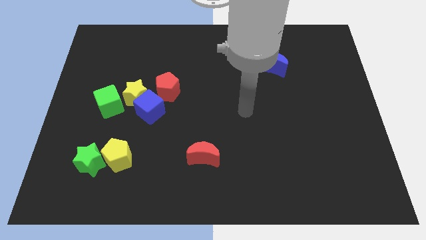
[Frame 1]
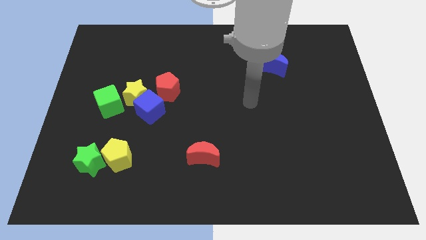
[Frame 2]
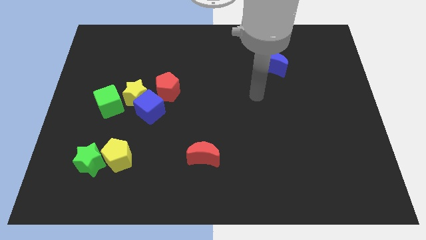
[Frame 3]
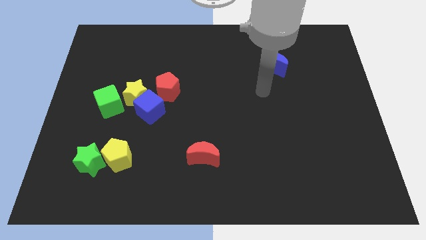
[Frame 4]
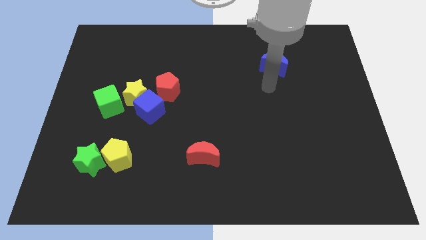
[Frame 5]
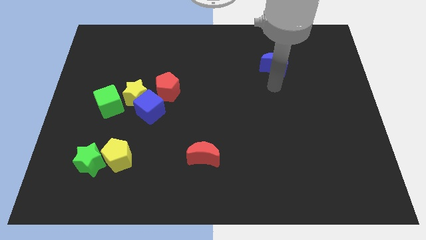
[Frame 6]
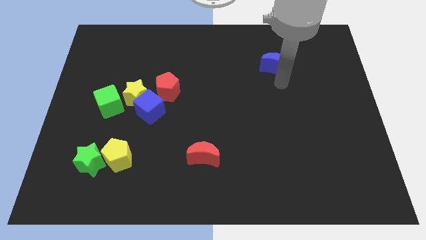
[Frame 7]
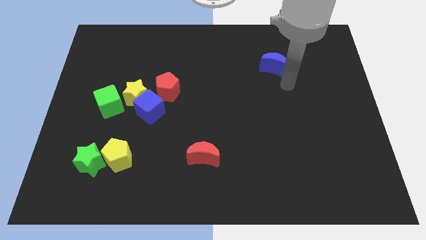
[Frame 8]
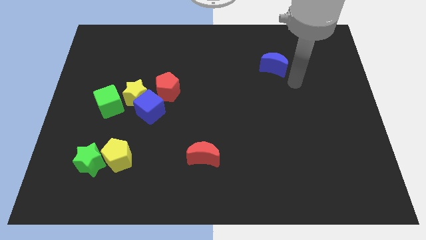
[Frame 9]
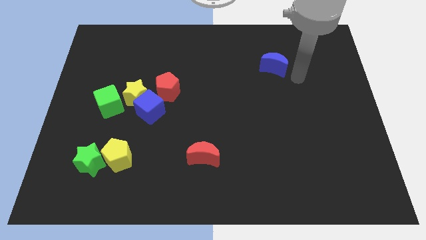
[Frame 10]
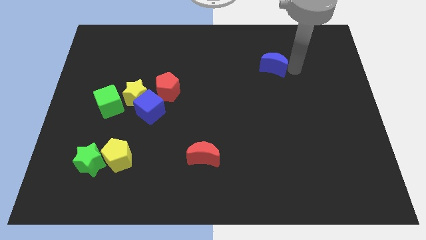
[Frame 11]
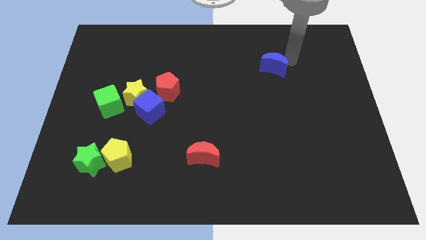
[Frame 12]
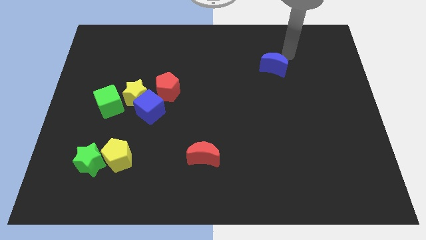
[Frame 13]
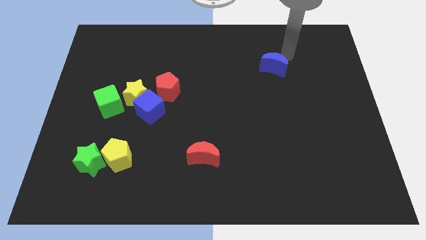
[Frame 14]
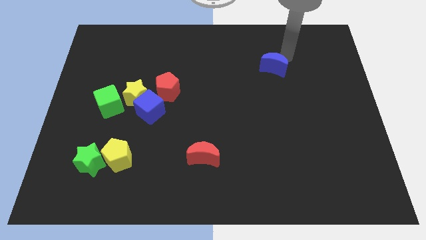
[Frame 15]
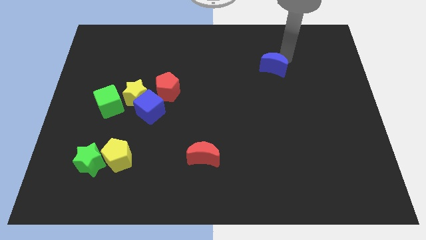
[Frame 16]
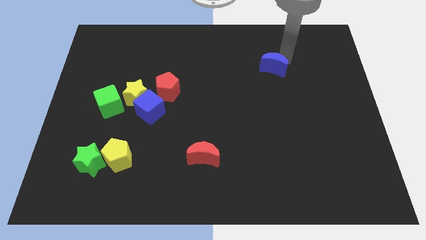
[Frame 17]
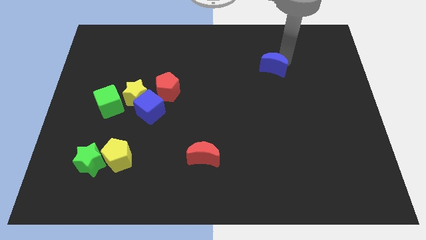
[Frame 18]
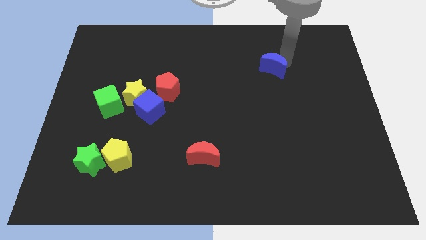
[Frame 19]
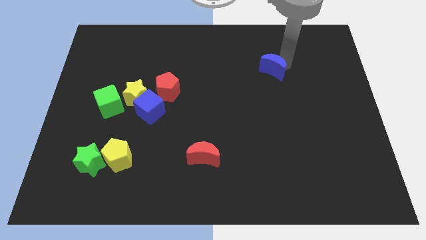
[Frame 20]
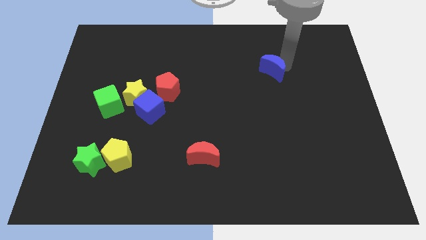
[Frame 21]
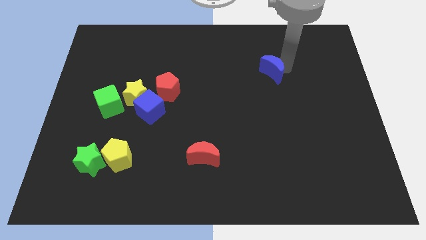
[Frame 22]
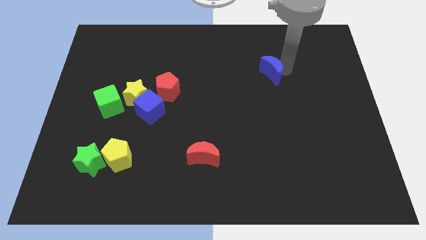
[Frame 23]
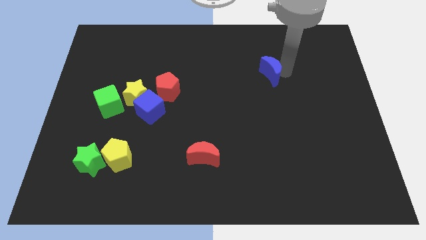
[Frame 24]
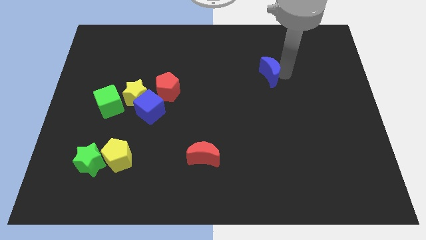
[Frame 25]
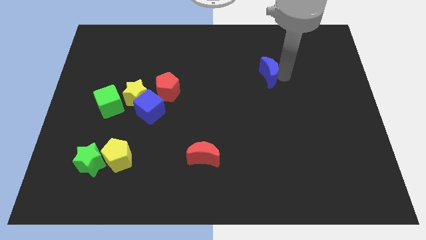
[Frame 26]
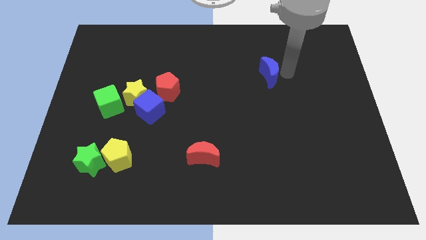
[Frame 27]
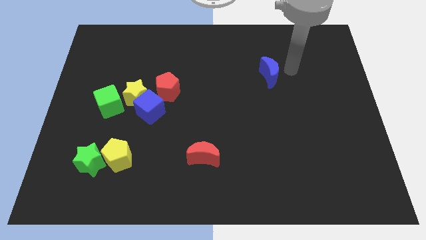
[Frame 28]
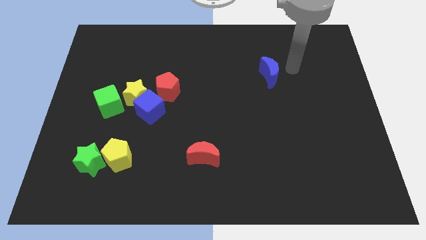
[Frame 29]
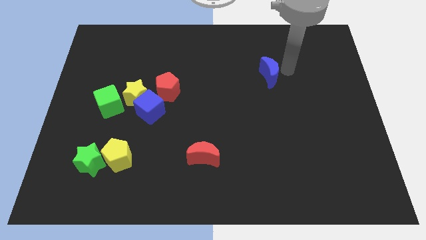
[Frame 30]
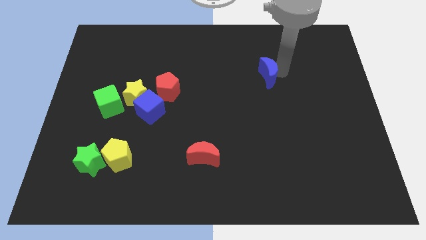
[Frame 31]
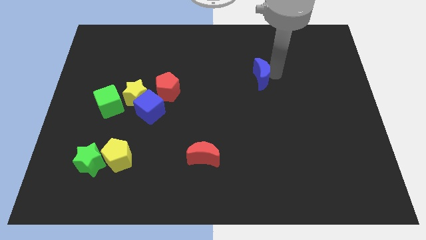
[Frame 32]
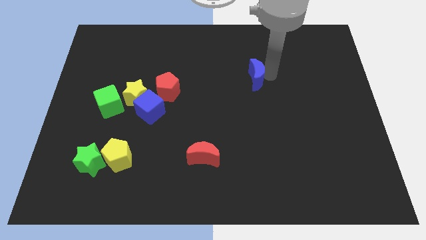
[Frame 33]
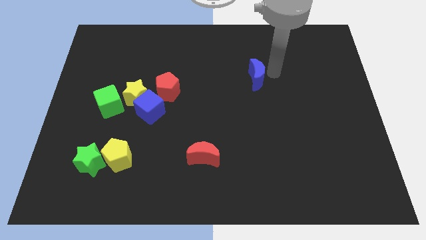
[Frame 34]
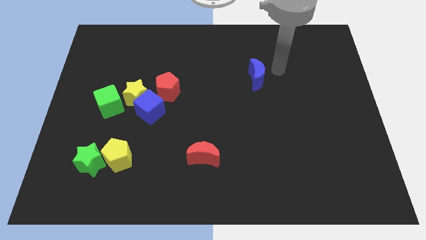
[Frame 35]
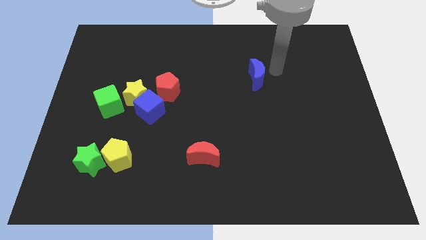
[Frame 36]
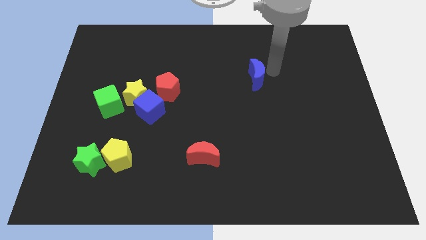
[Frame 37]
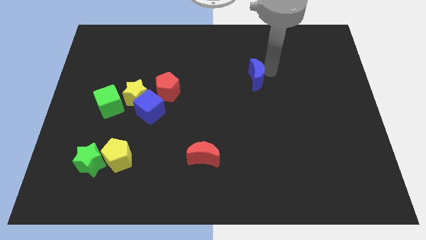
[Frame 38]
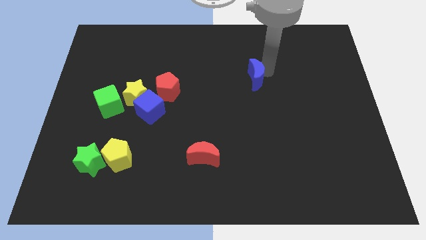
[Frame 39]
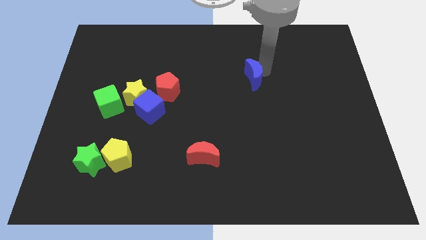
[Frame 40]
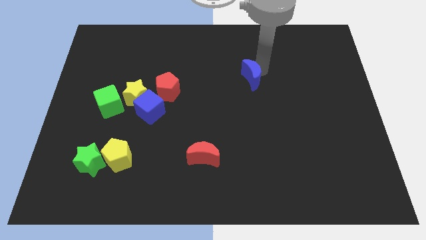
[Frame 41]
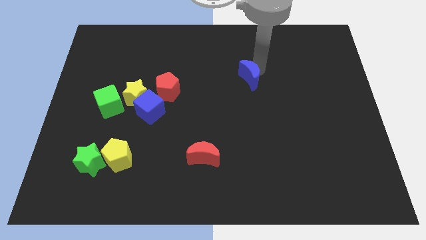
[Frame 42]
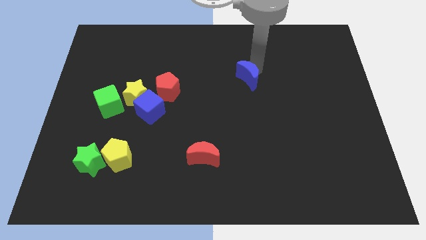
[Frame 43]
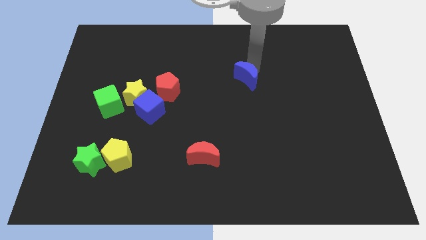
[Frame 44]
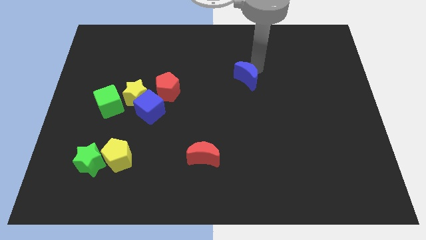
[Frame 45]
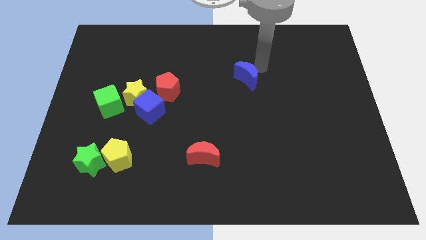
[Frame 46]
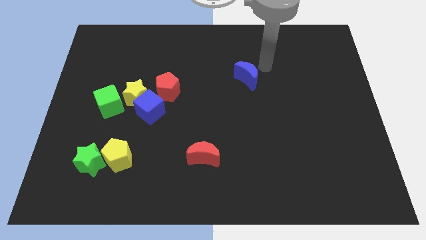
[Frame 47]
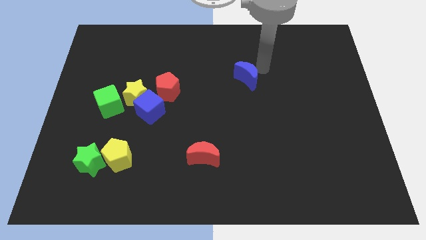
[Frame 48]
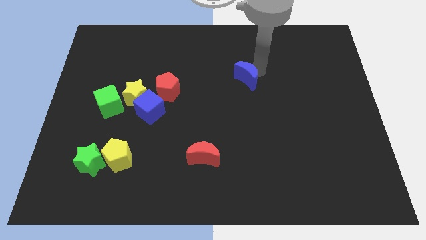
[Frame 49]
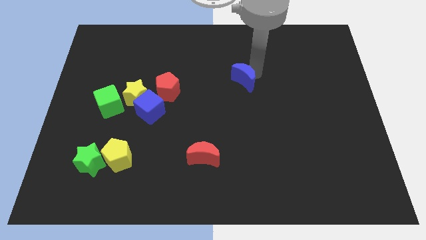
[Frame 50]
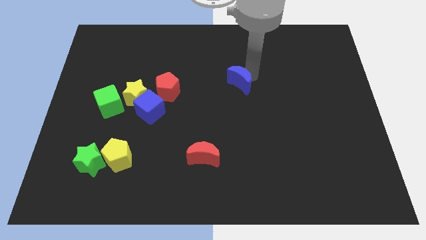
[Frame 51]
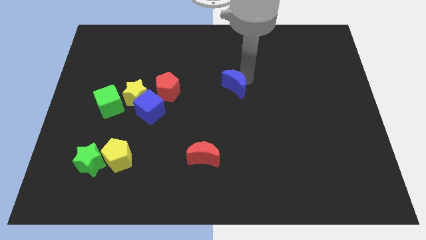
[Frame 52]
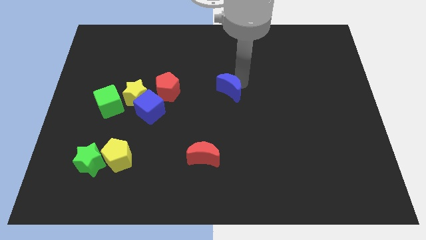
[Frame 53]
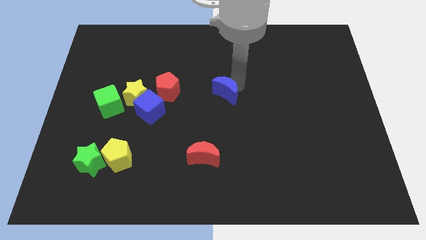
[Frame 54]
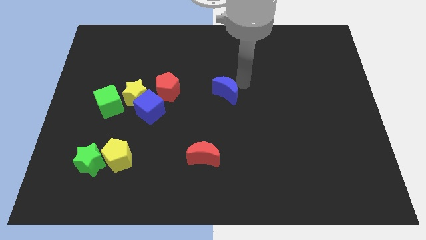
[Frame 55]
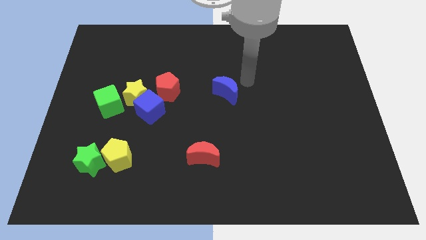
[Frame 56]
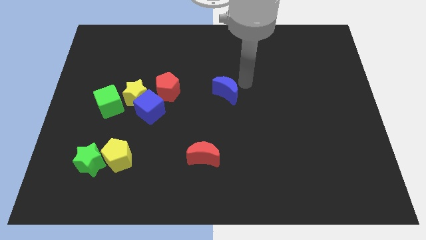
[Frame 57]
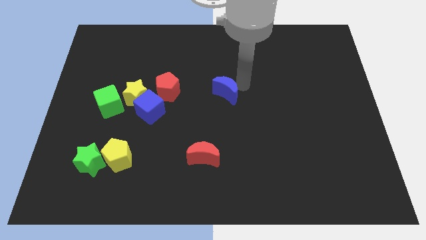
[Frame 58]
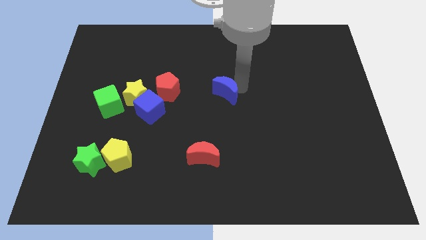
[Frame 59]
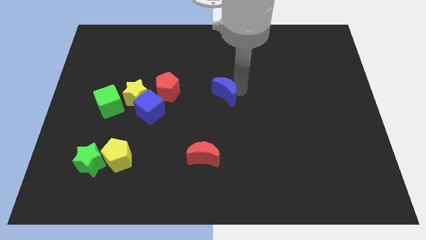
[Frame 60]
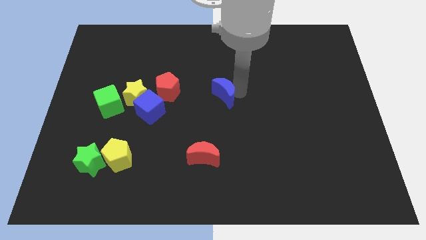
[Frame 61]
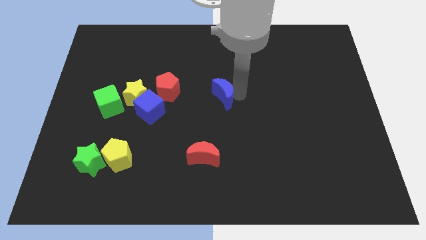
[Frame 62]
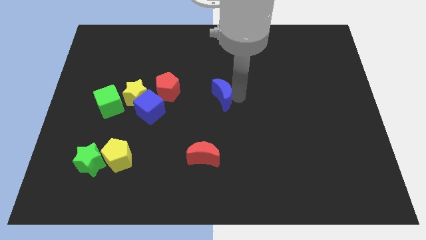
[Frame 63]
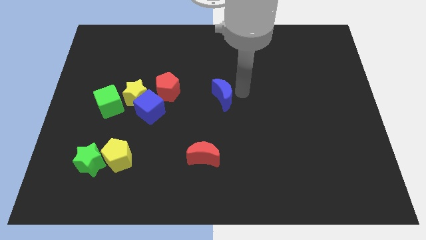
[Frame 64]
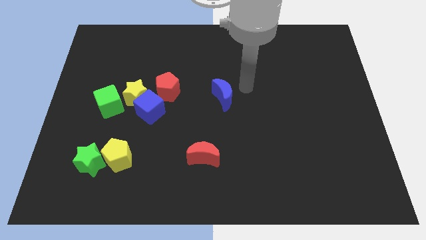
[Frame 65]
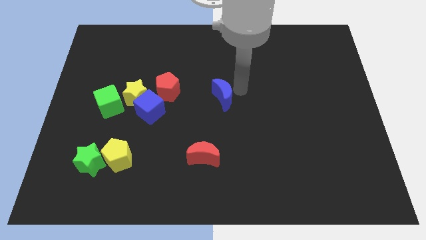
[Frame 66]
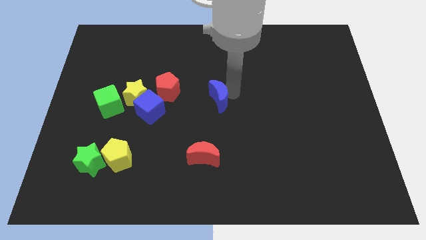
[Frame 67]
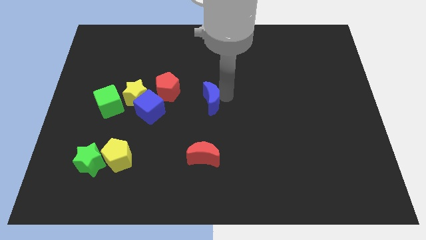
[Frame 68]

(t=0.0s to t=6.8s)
slide the blue moon right of the blue cube
